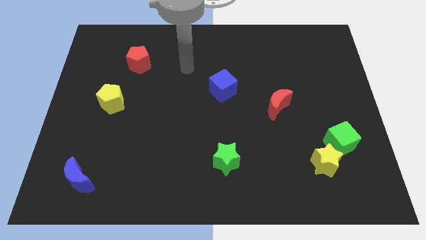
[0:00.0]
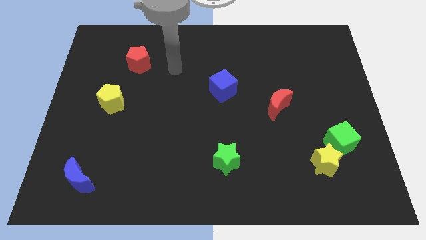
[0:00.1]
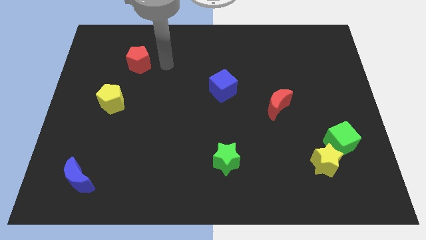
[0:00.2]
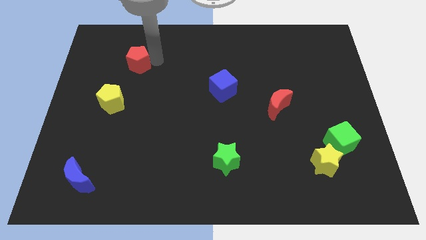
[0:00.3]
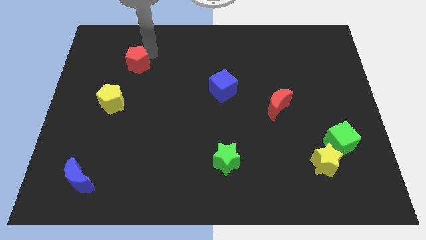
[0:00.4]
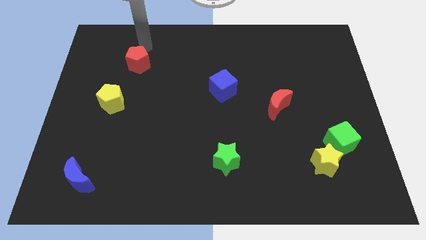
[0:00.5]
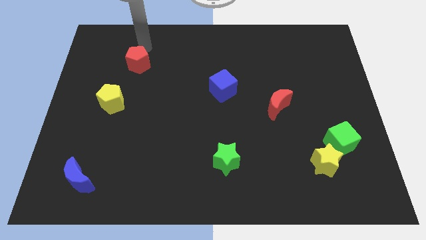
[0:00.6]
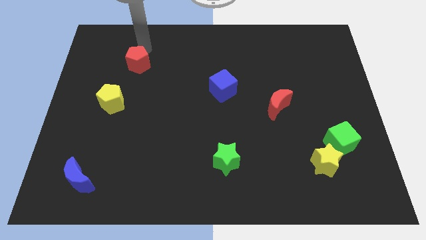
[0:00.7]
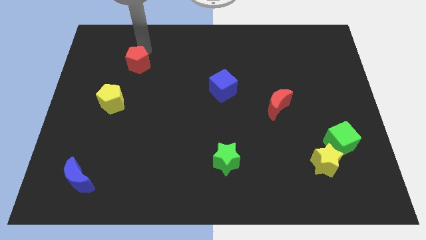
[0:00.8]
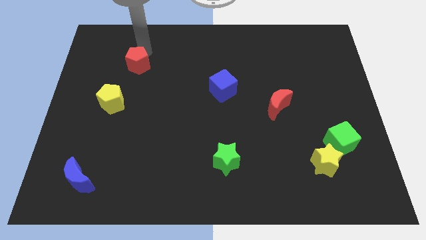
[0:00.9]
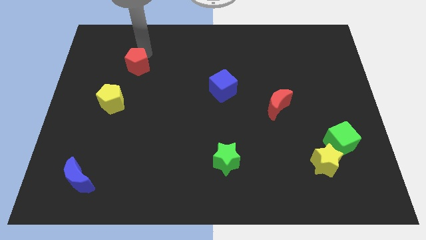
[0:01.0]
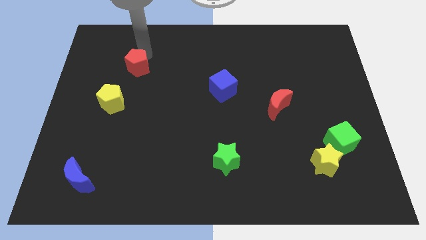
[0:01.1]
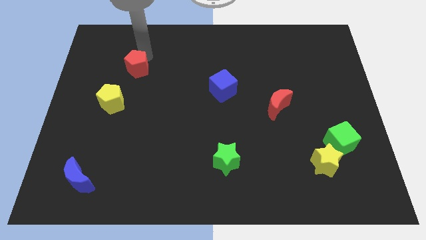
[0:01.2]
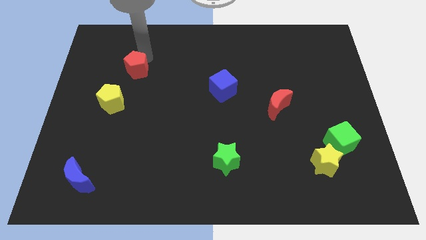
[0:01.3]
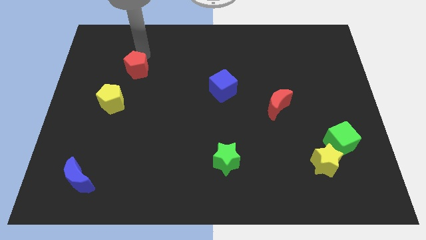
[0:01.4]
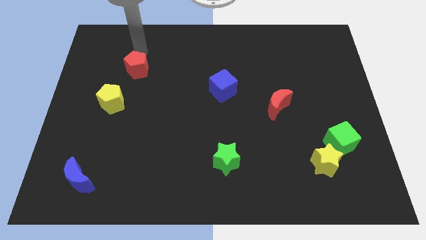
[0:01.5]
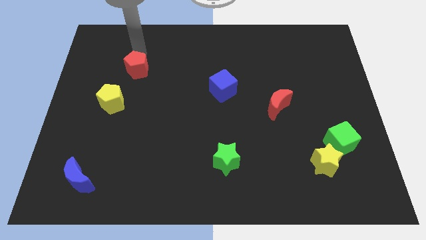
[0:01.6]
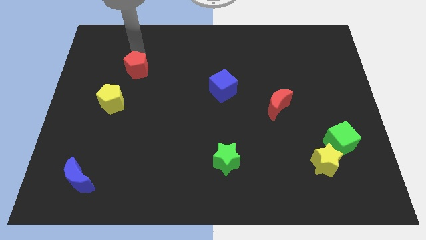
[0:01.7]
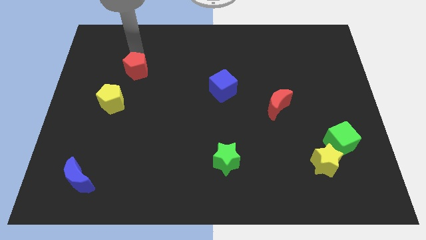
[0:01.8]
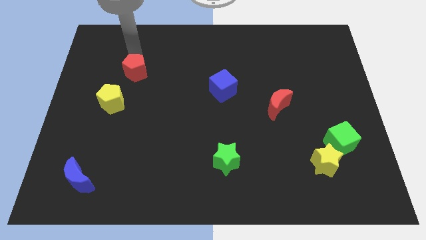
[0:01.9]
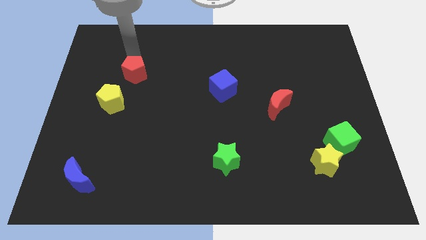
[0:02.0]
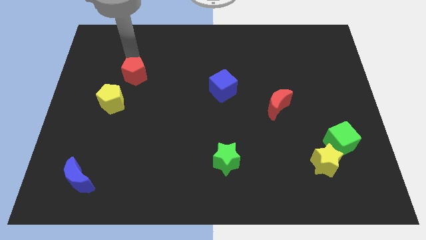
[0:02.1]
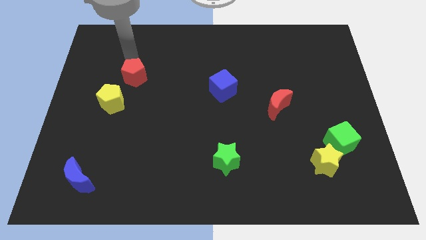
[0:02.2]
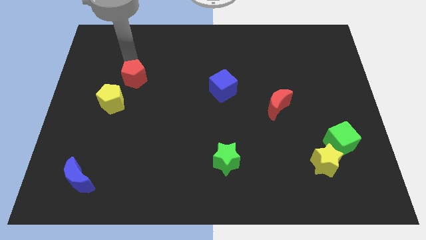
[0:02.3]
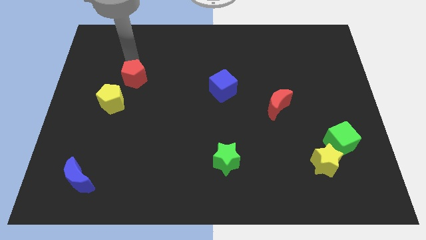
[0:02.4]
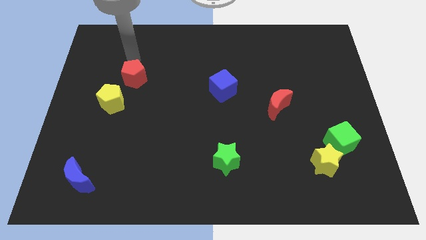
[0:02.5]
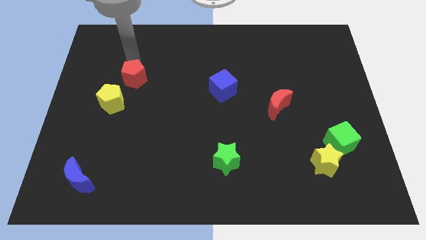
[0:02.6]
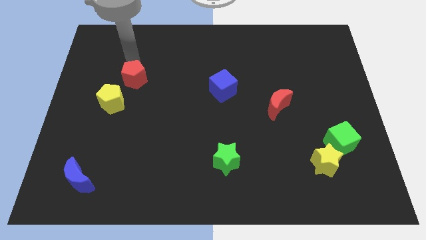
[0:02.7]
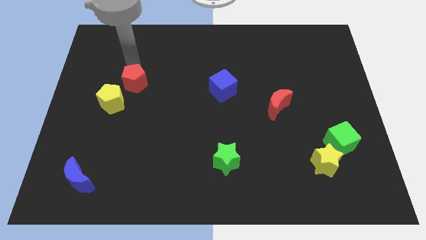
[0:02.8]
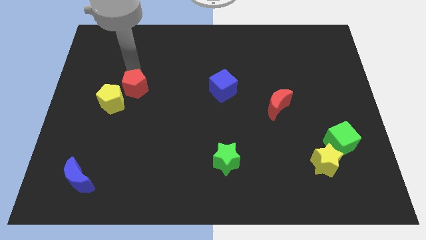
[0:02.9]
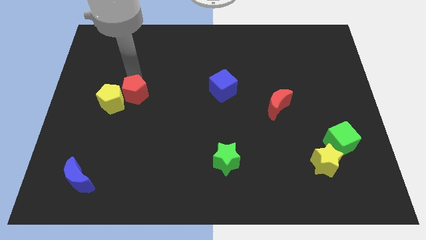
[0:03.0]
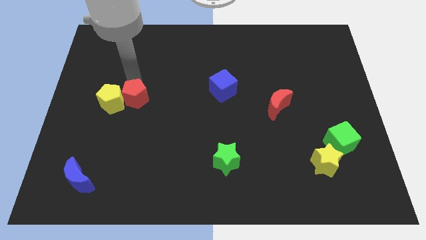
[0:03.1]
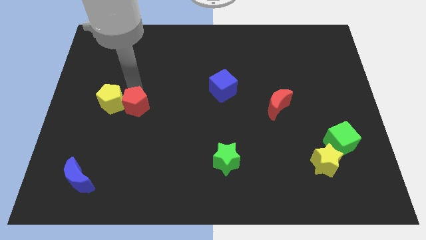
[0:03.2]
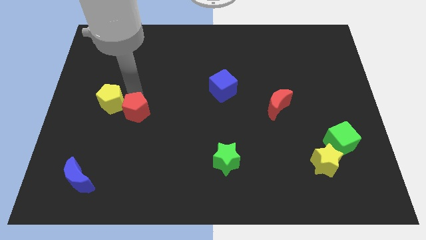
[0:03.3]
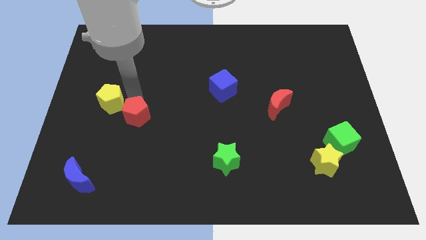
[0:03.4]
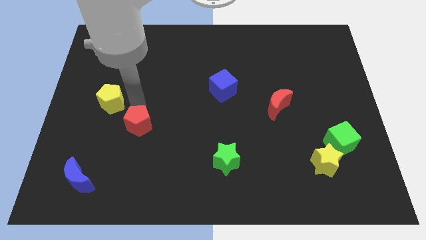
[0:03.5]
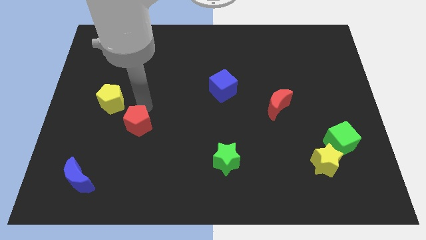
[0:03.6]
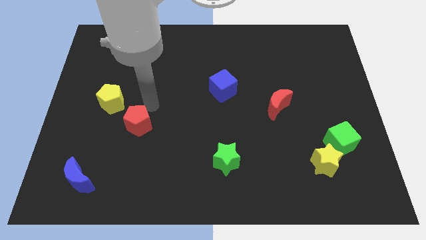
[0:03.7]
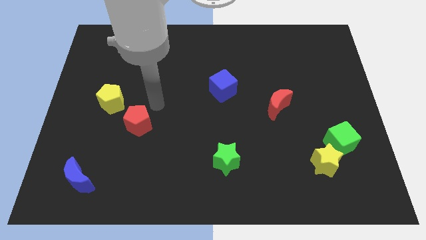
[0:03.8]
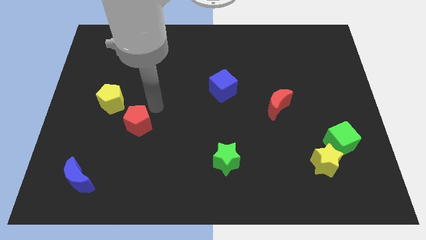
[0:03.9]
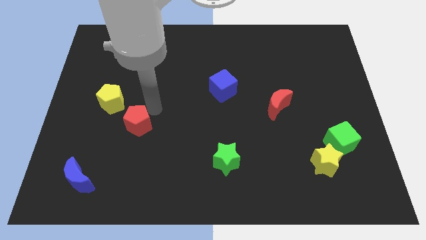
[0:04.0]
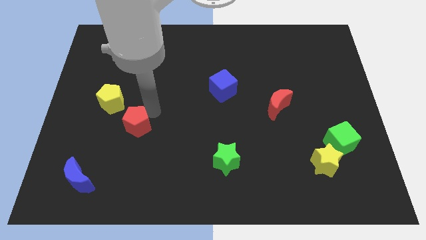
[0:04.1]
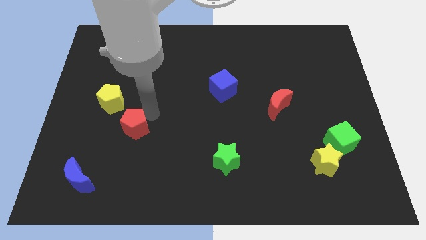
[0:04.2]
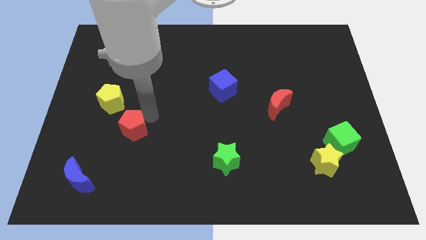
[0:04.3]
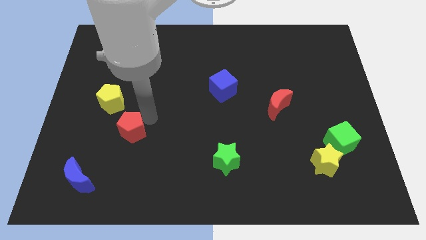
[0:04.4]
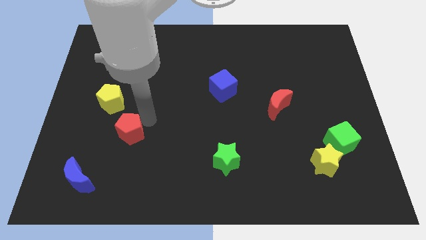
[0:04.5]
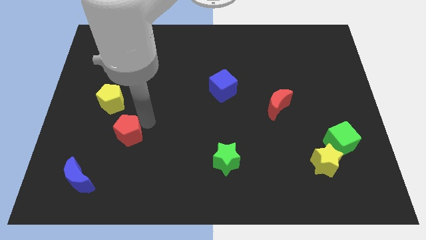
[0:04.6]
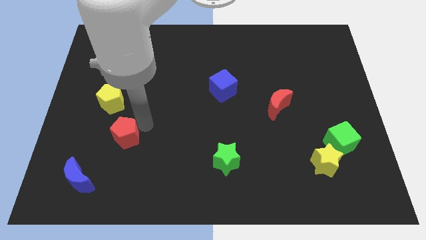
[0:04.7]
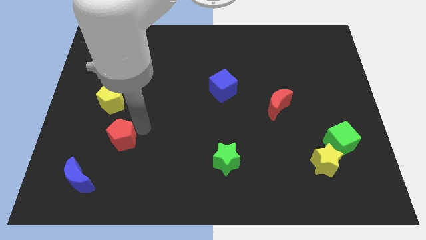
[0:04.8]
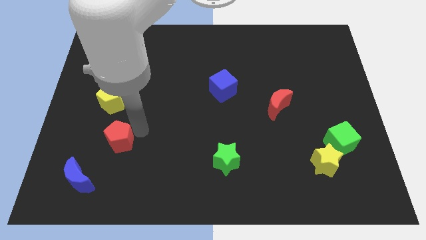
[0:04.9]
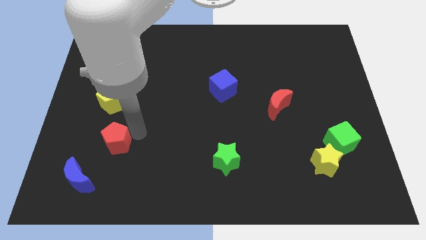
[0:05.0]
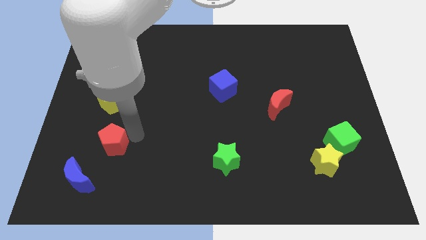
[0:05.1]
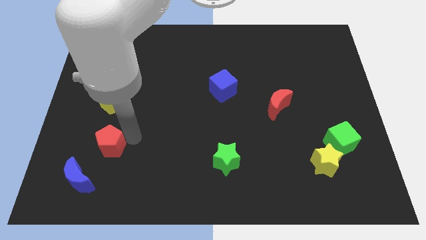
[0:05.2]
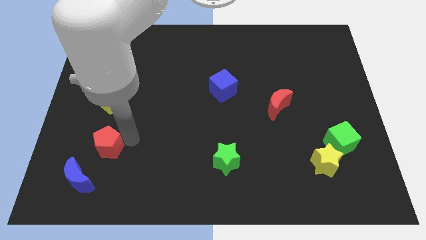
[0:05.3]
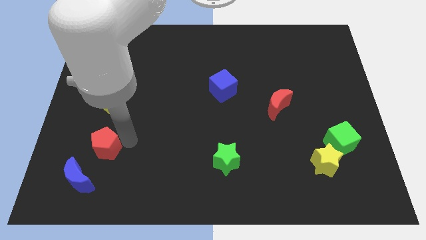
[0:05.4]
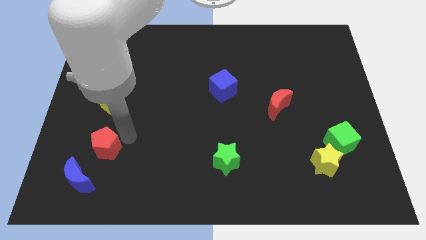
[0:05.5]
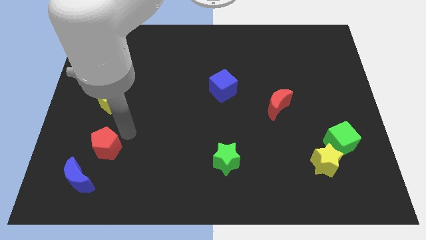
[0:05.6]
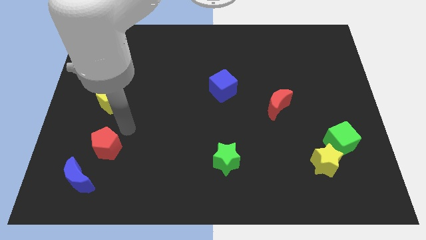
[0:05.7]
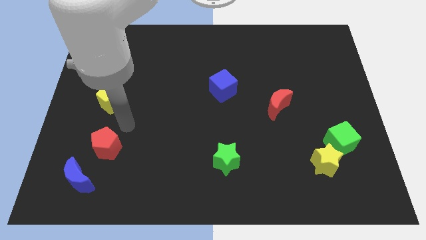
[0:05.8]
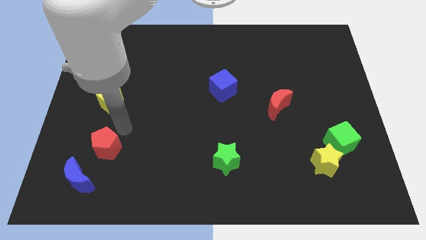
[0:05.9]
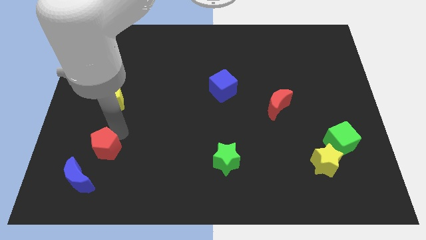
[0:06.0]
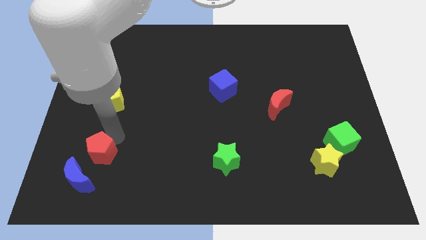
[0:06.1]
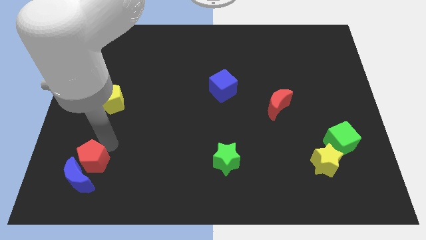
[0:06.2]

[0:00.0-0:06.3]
push the red pentagon close to the blue moon

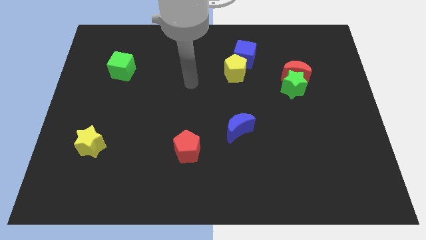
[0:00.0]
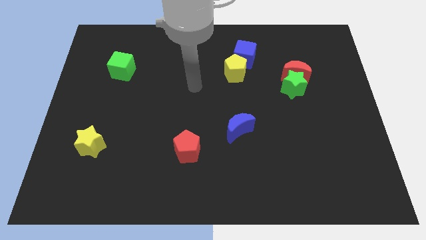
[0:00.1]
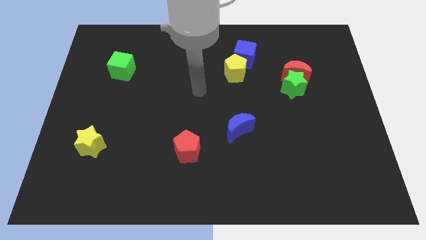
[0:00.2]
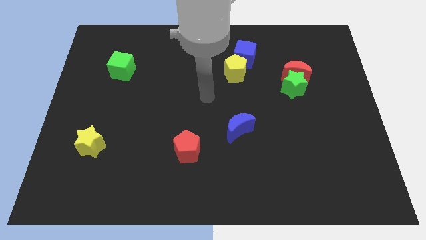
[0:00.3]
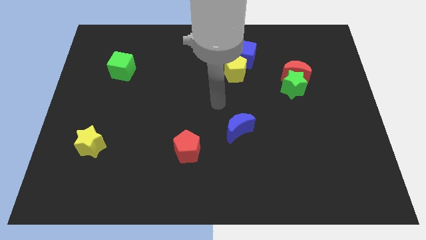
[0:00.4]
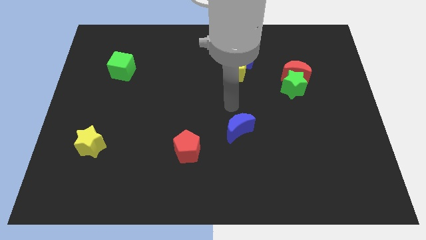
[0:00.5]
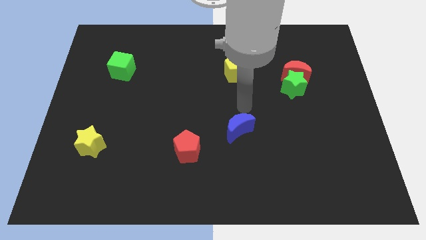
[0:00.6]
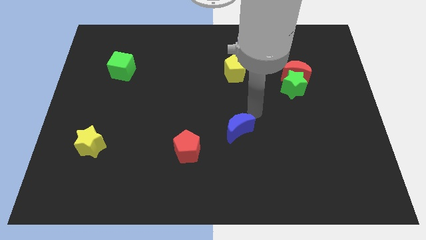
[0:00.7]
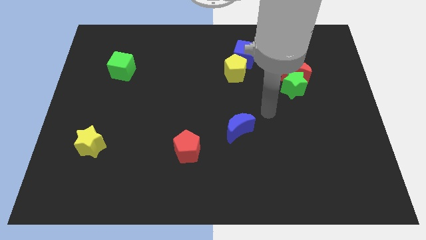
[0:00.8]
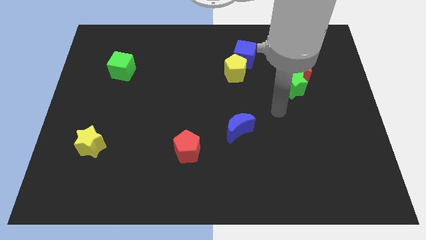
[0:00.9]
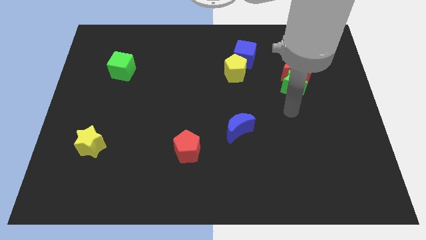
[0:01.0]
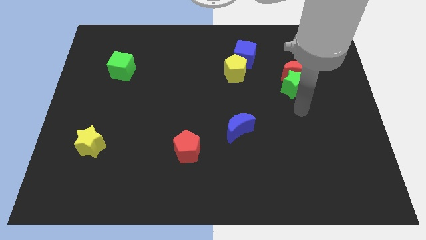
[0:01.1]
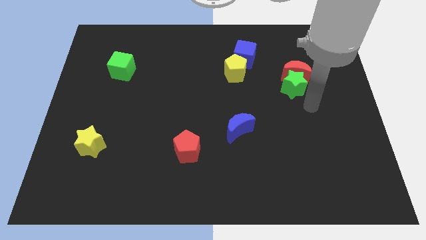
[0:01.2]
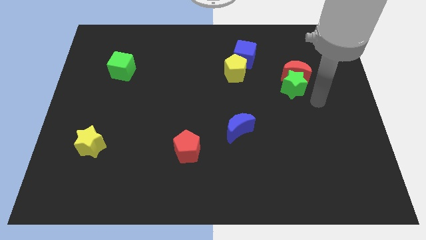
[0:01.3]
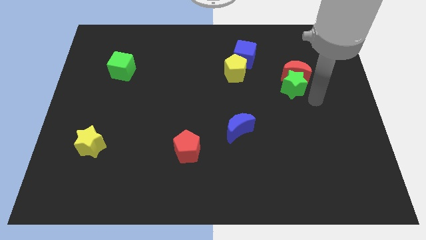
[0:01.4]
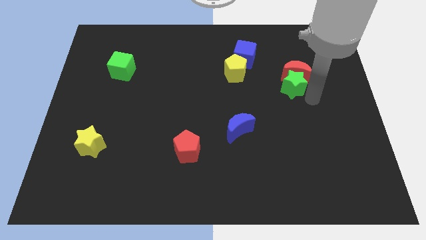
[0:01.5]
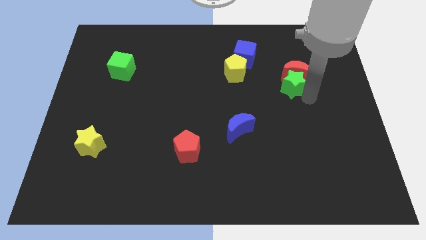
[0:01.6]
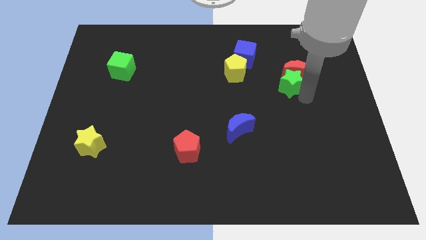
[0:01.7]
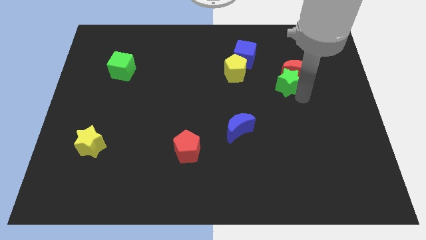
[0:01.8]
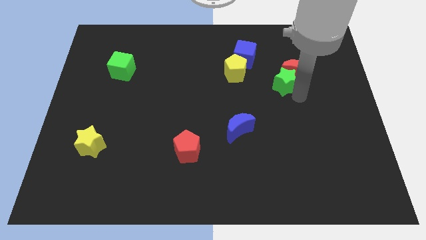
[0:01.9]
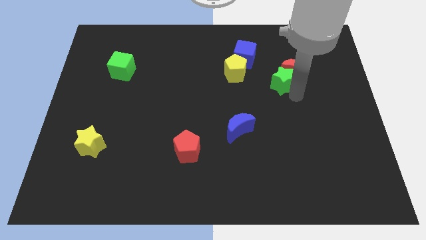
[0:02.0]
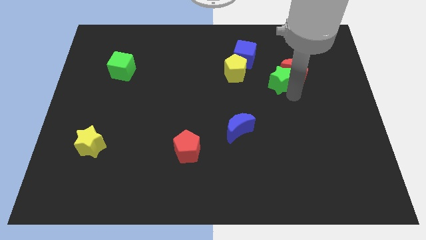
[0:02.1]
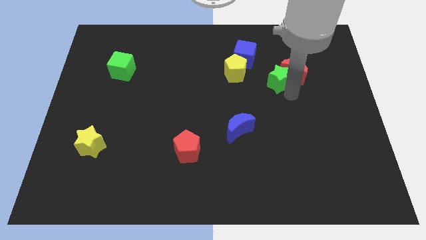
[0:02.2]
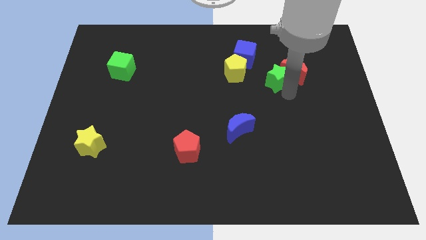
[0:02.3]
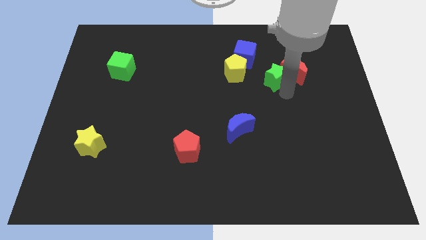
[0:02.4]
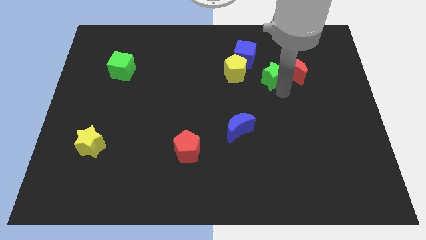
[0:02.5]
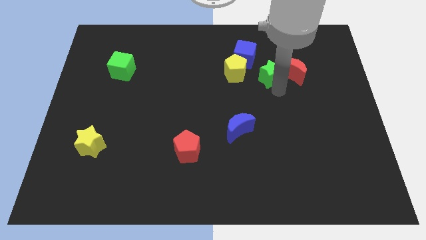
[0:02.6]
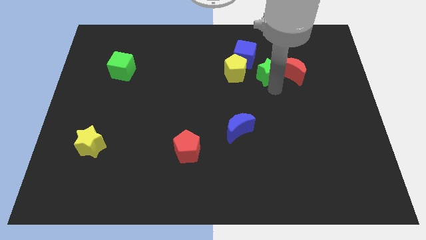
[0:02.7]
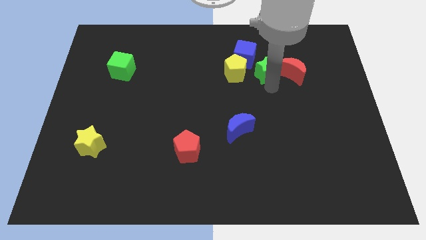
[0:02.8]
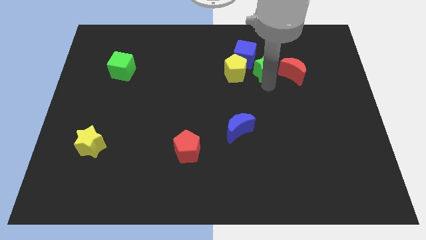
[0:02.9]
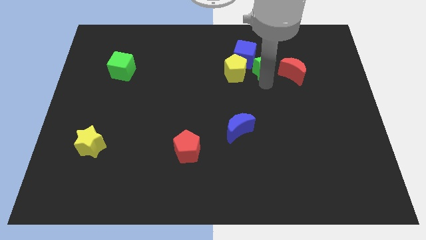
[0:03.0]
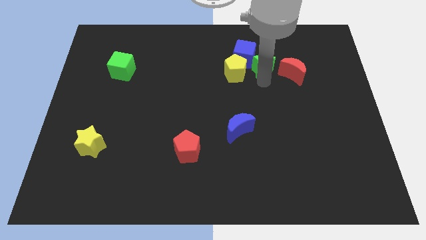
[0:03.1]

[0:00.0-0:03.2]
slide the green star close to the blue cube
